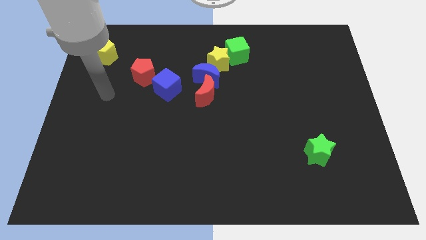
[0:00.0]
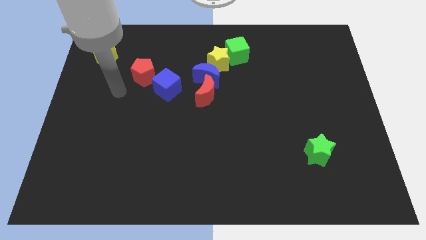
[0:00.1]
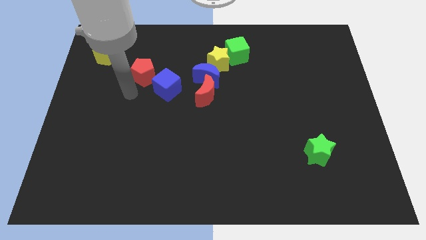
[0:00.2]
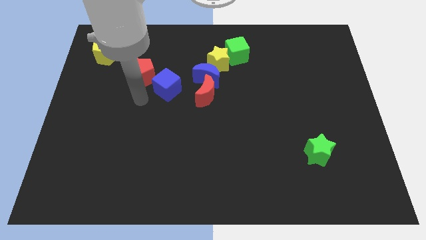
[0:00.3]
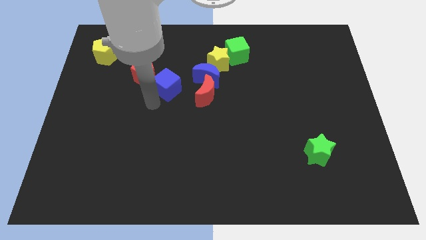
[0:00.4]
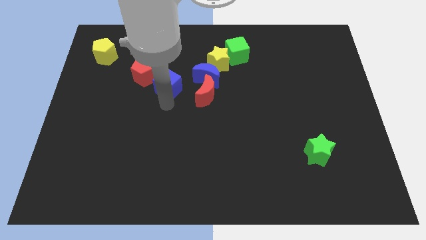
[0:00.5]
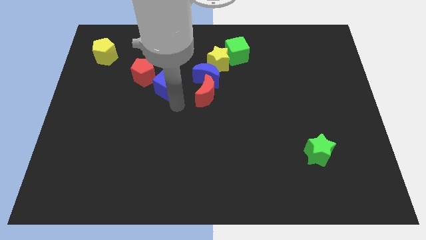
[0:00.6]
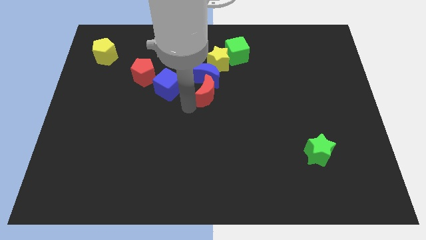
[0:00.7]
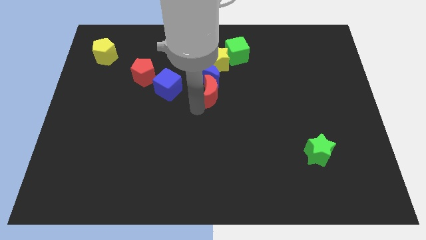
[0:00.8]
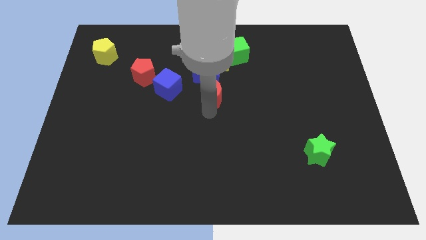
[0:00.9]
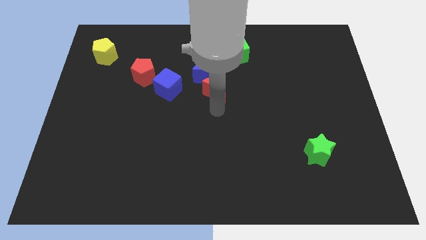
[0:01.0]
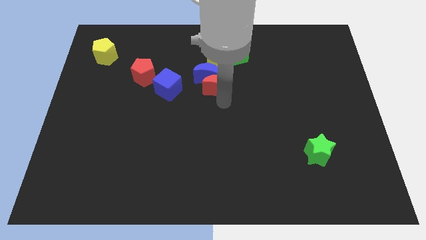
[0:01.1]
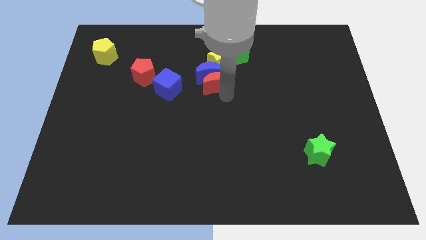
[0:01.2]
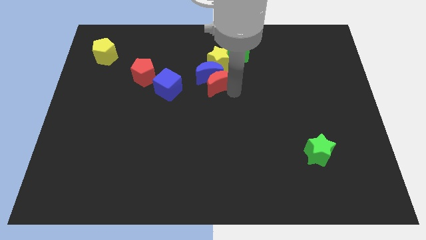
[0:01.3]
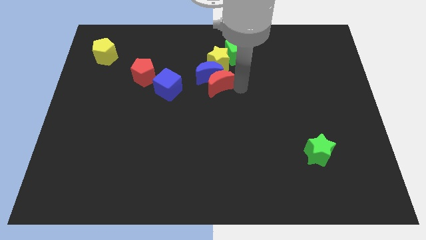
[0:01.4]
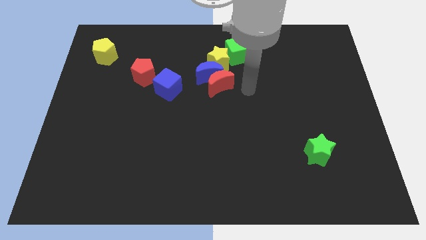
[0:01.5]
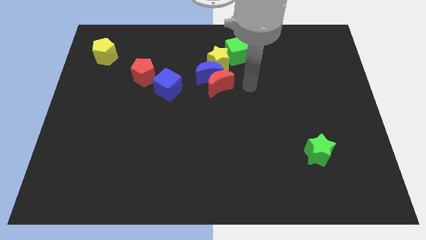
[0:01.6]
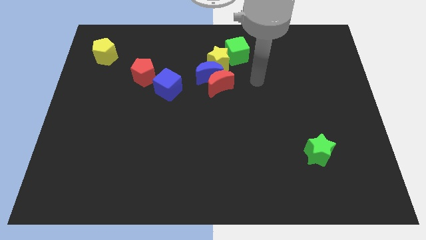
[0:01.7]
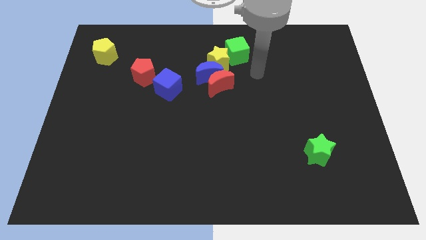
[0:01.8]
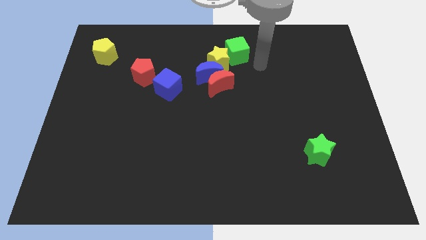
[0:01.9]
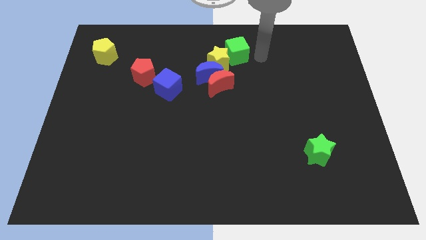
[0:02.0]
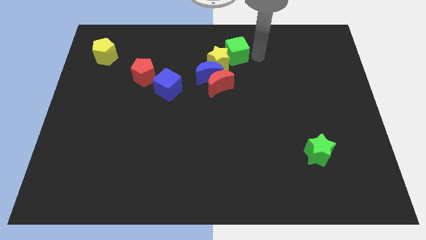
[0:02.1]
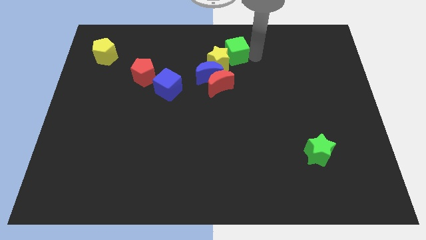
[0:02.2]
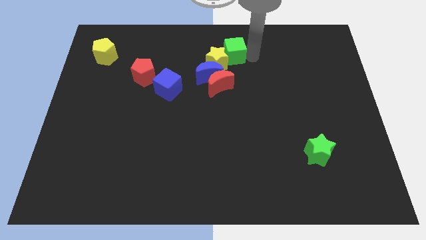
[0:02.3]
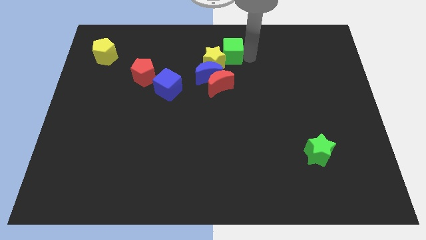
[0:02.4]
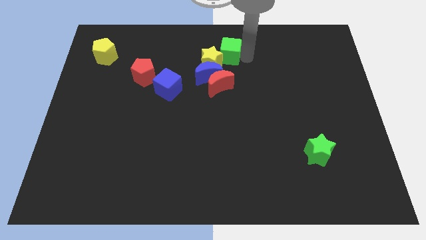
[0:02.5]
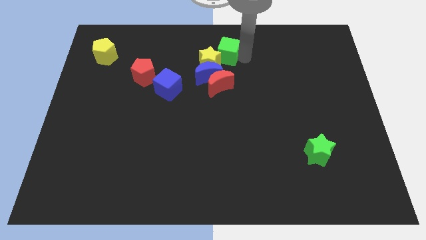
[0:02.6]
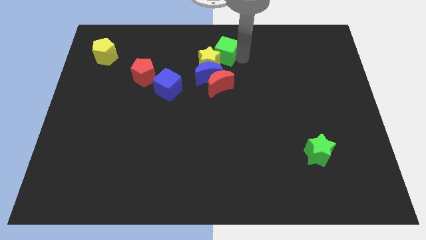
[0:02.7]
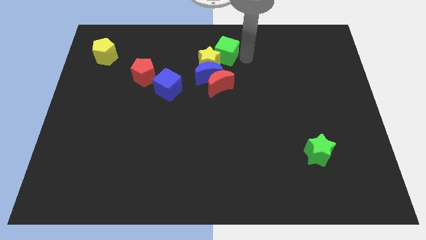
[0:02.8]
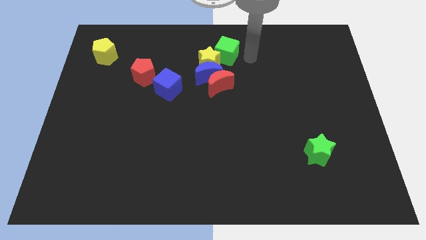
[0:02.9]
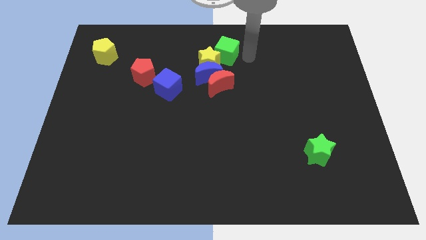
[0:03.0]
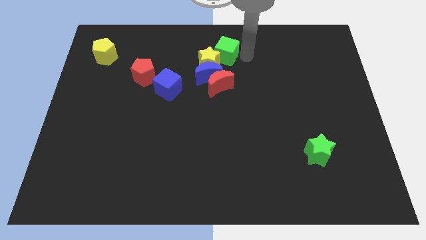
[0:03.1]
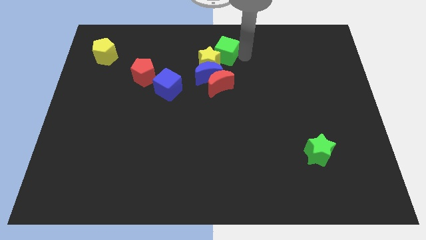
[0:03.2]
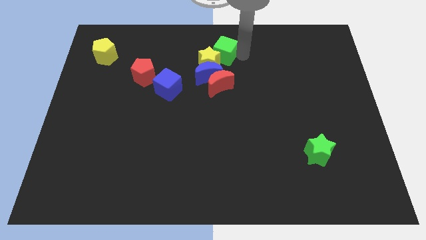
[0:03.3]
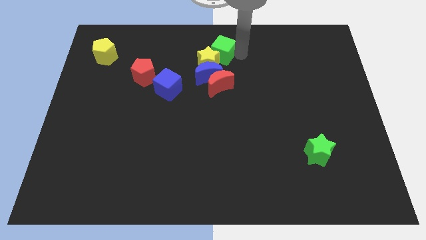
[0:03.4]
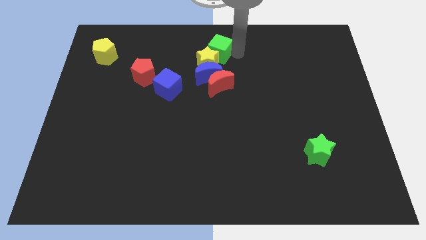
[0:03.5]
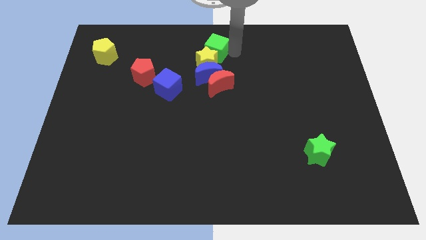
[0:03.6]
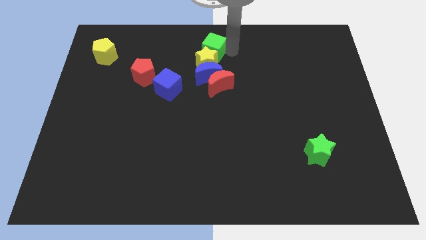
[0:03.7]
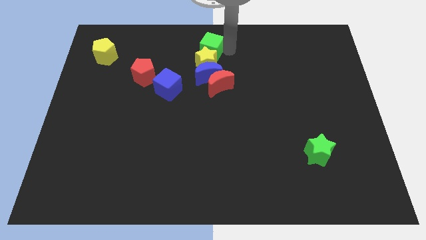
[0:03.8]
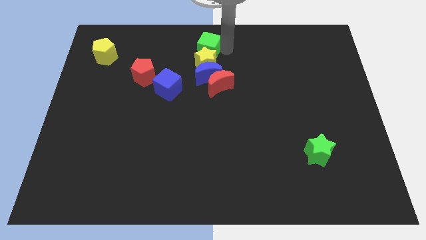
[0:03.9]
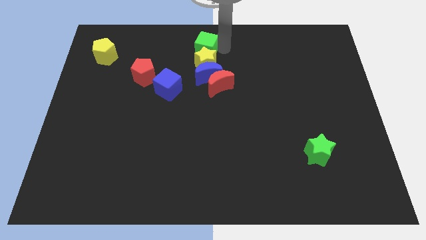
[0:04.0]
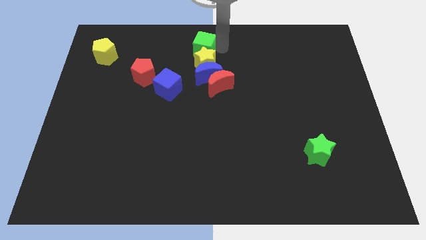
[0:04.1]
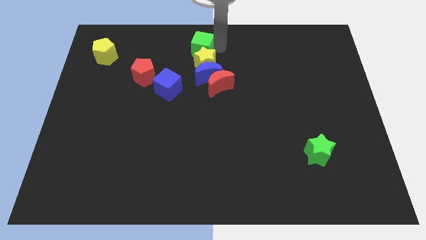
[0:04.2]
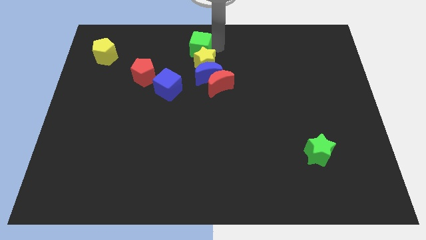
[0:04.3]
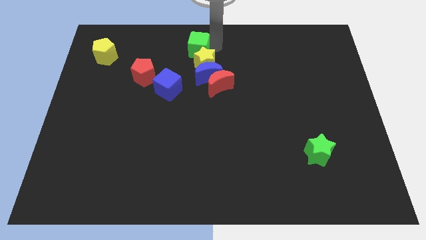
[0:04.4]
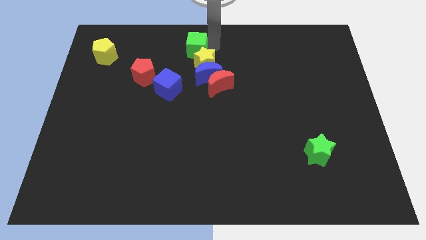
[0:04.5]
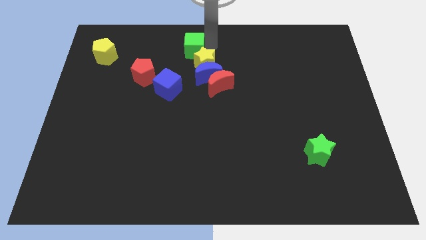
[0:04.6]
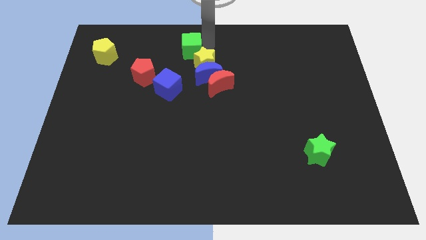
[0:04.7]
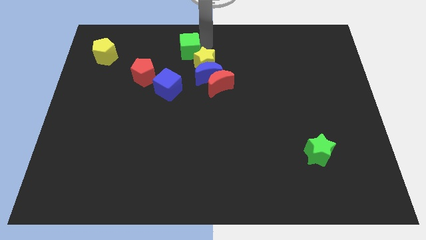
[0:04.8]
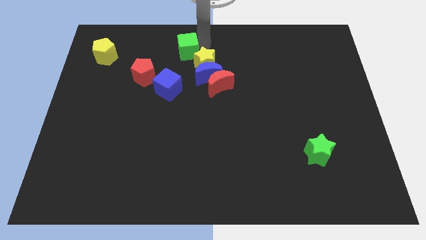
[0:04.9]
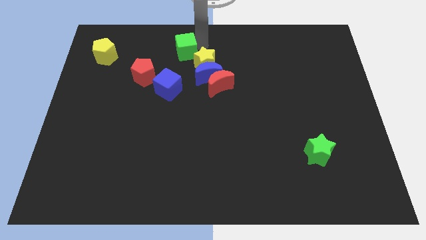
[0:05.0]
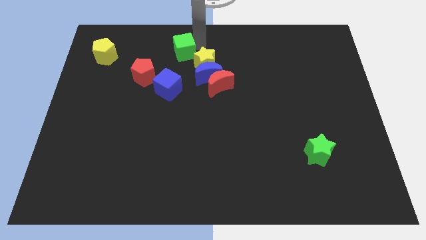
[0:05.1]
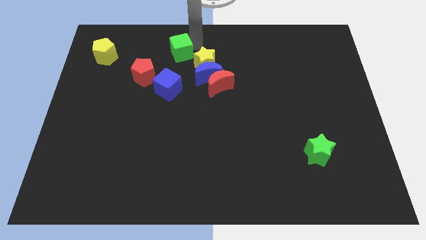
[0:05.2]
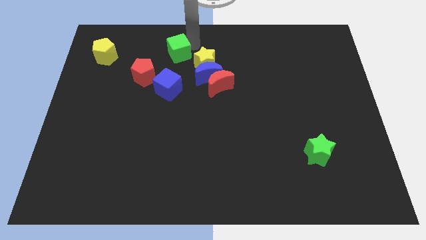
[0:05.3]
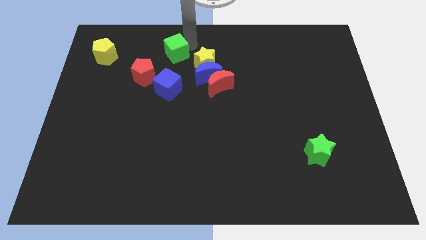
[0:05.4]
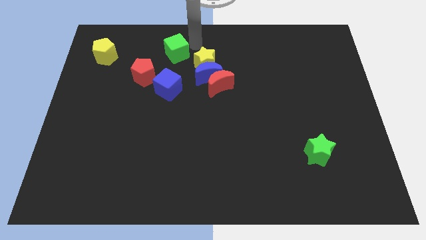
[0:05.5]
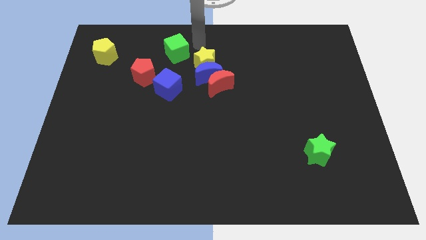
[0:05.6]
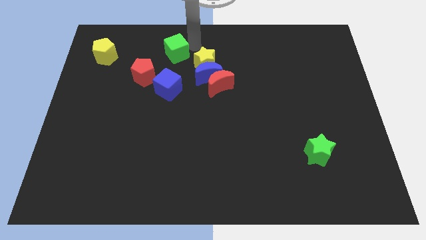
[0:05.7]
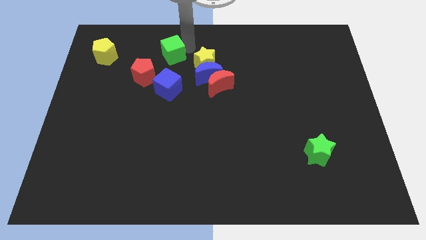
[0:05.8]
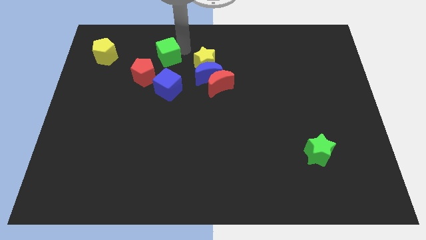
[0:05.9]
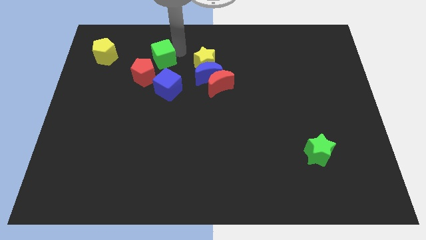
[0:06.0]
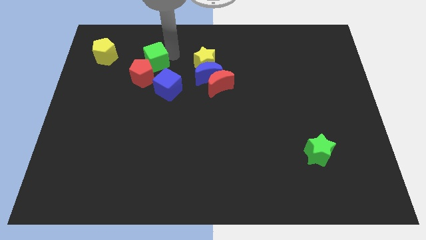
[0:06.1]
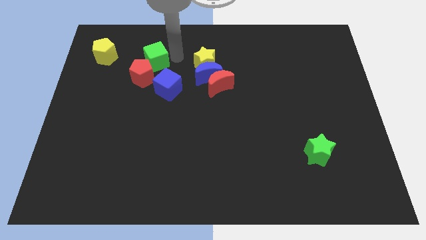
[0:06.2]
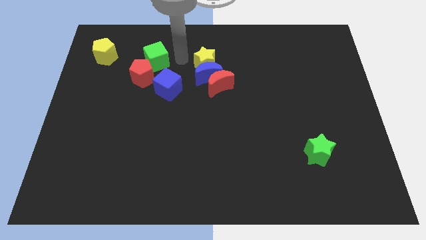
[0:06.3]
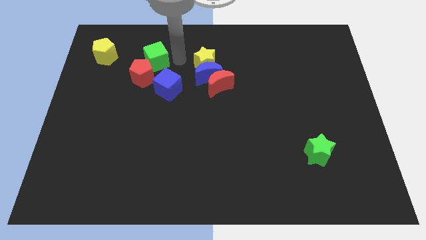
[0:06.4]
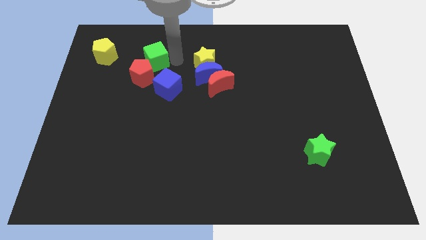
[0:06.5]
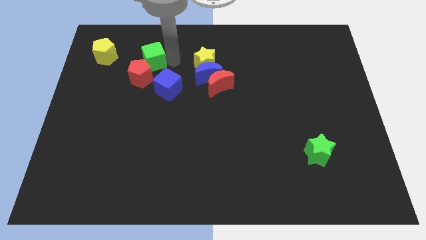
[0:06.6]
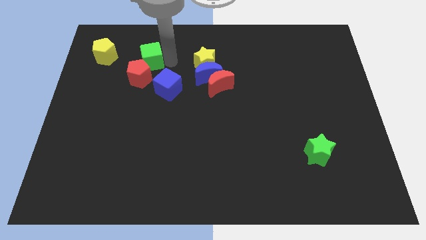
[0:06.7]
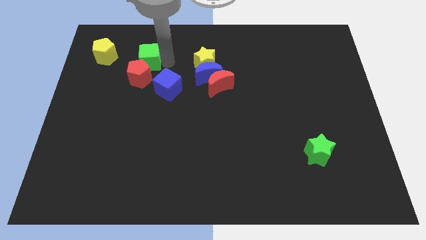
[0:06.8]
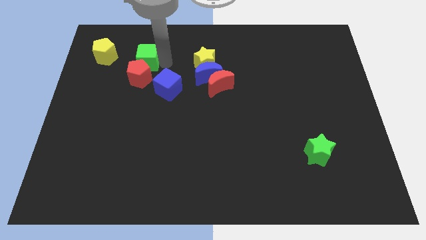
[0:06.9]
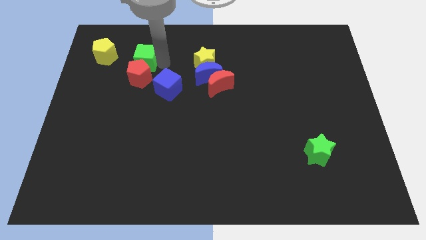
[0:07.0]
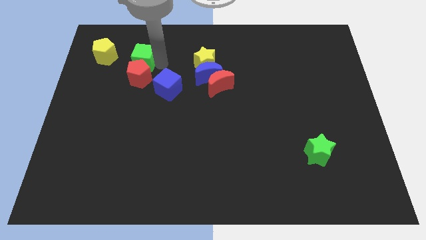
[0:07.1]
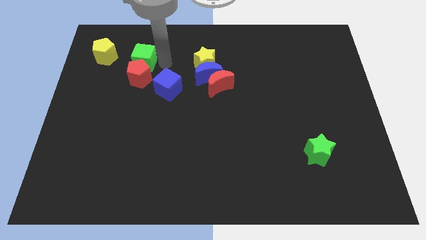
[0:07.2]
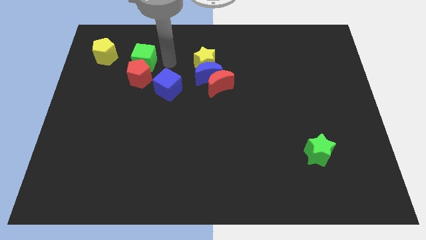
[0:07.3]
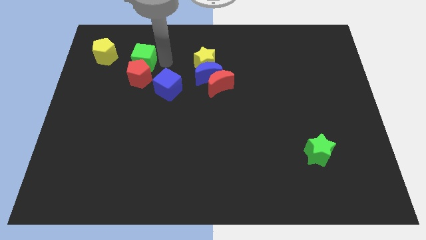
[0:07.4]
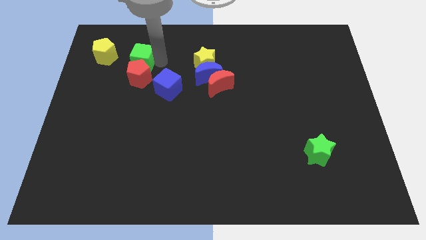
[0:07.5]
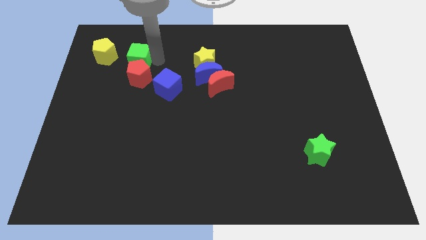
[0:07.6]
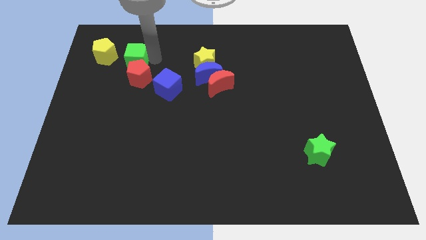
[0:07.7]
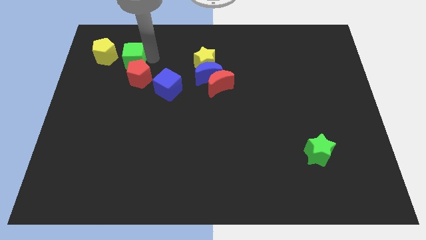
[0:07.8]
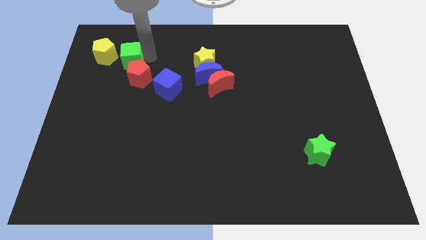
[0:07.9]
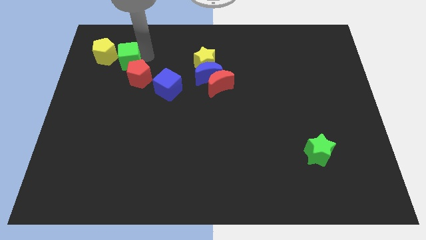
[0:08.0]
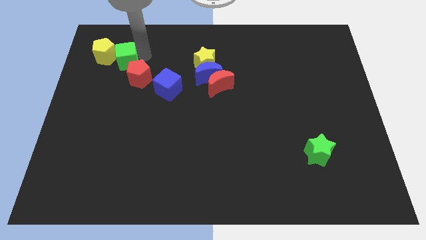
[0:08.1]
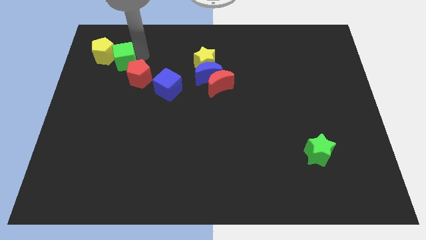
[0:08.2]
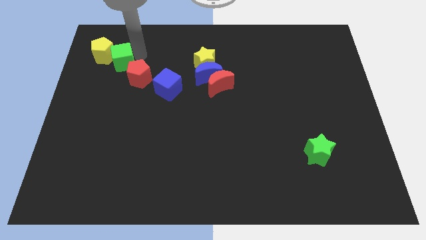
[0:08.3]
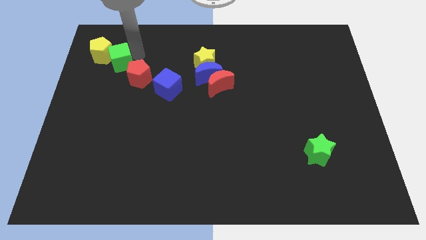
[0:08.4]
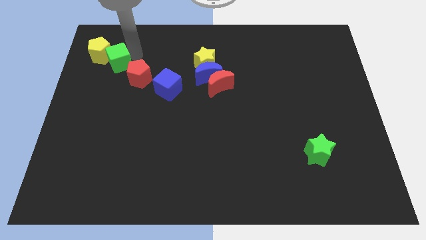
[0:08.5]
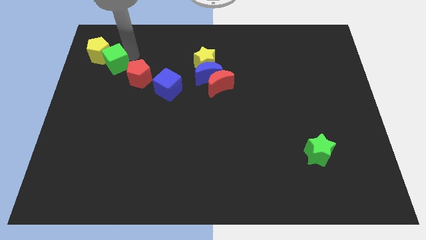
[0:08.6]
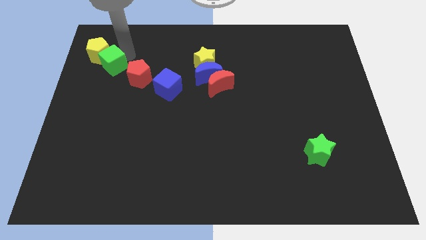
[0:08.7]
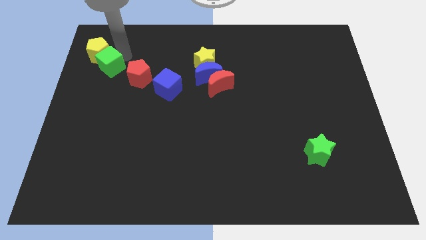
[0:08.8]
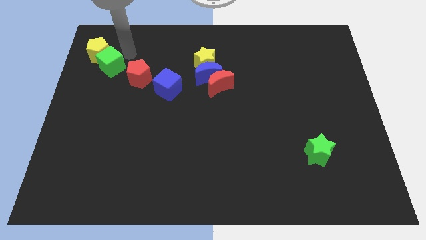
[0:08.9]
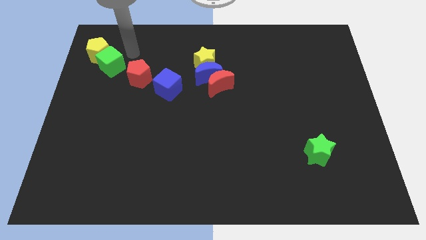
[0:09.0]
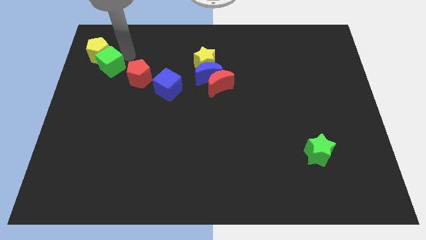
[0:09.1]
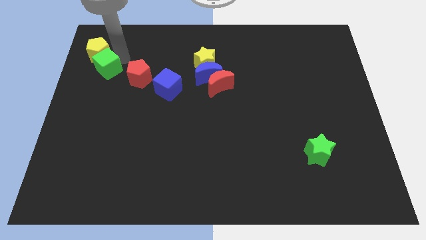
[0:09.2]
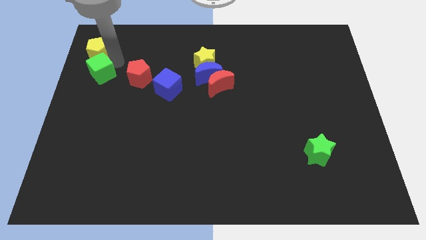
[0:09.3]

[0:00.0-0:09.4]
put the green cube to the left side
